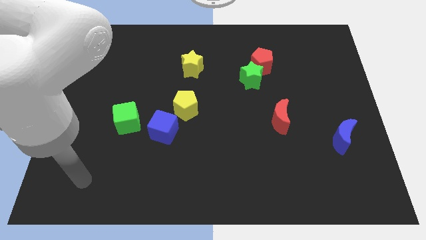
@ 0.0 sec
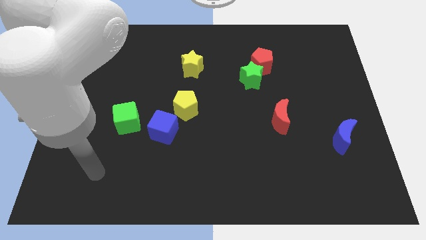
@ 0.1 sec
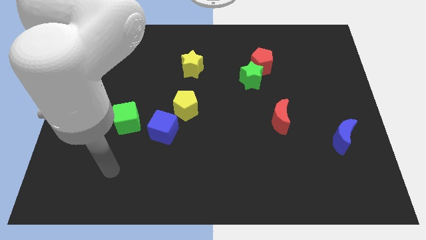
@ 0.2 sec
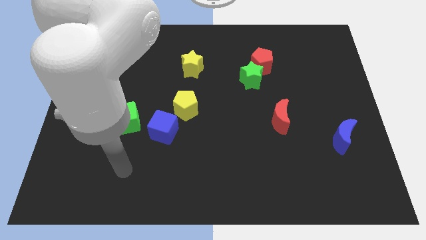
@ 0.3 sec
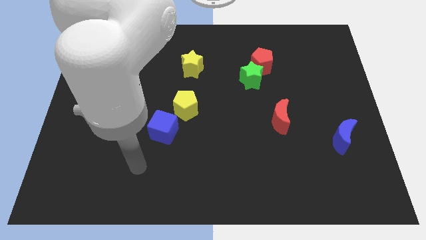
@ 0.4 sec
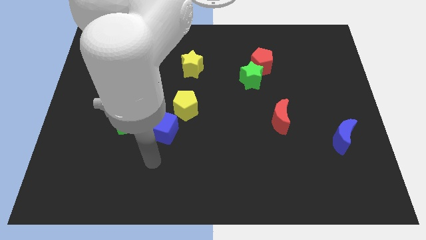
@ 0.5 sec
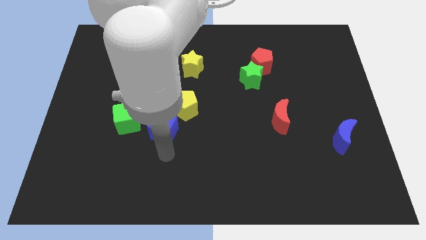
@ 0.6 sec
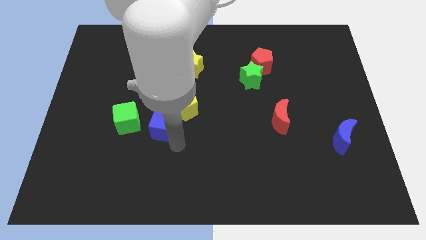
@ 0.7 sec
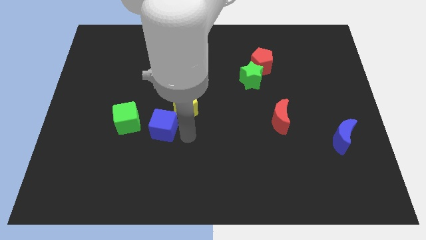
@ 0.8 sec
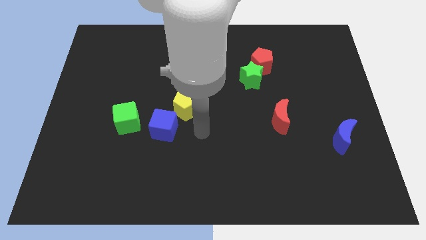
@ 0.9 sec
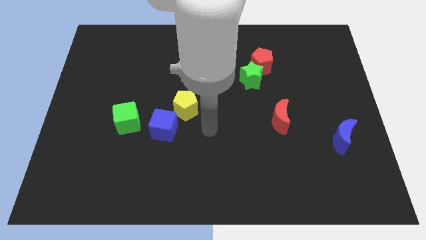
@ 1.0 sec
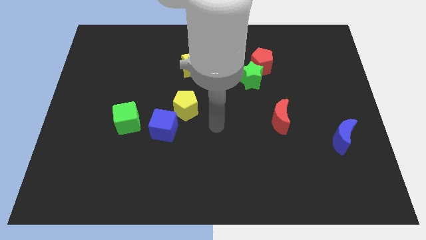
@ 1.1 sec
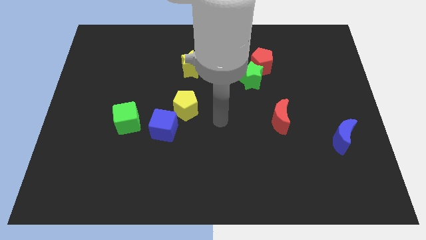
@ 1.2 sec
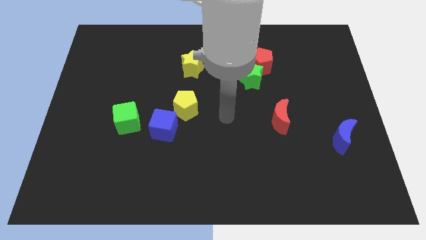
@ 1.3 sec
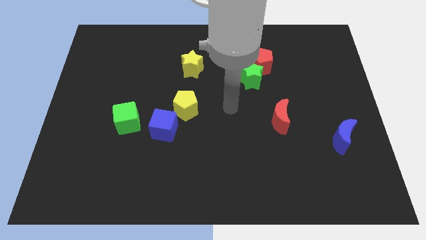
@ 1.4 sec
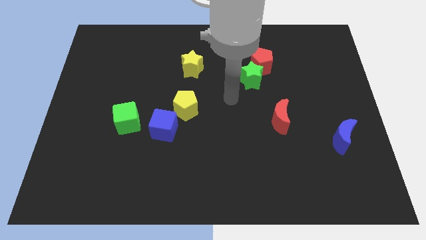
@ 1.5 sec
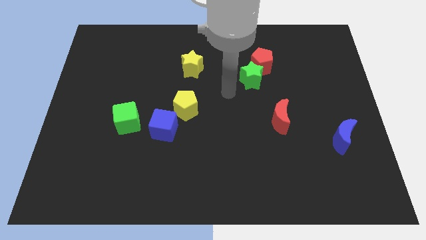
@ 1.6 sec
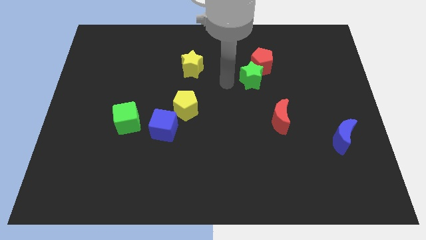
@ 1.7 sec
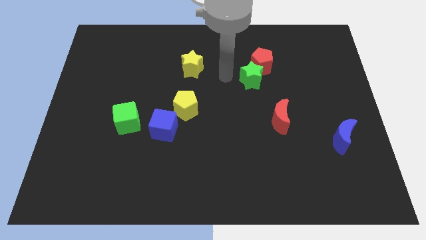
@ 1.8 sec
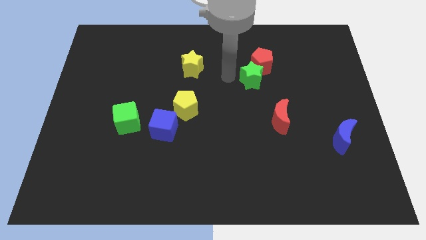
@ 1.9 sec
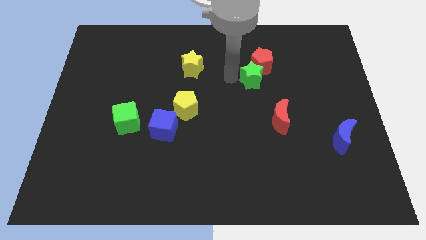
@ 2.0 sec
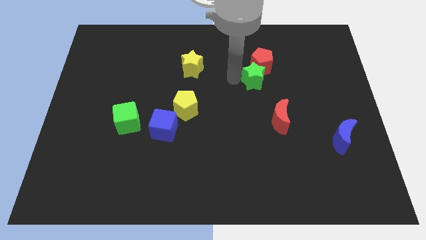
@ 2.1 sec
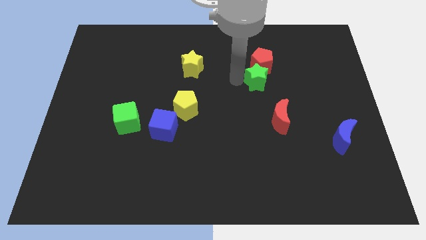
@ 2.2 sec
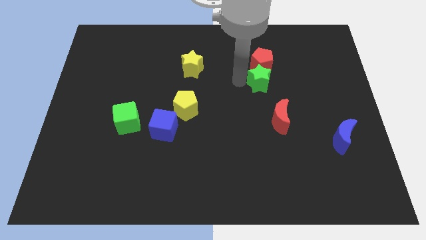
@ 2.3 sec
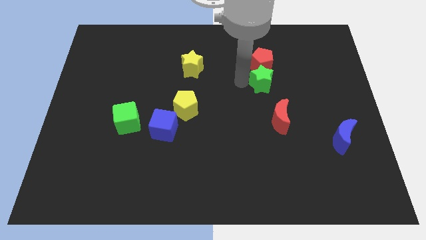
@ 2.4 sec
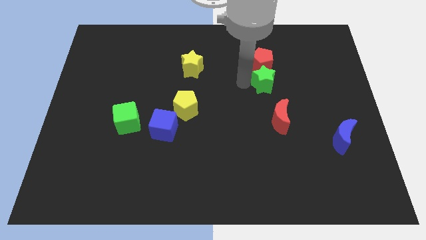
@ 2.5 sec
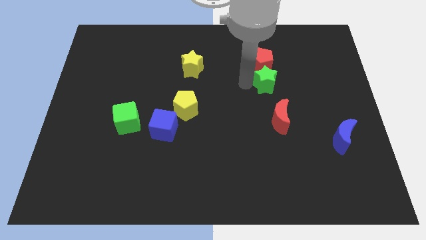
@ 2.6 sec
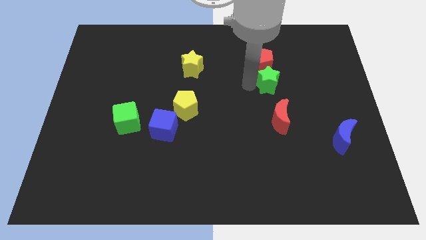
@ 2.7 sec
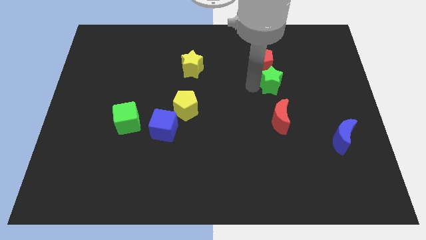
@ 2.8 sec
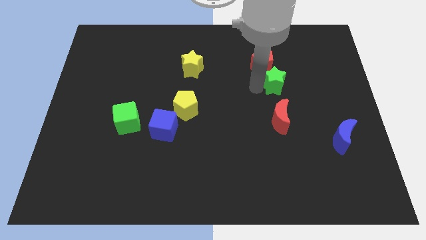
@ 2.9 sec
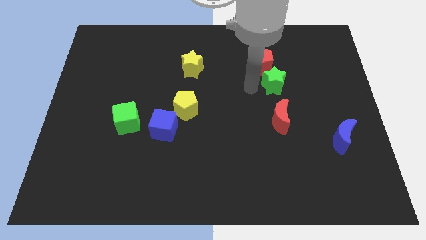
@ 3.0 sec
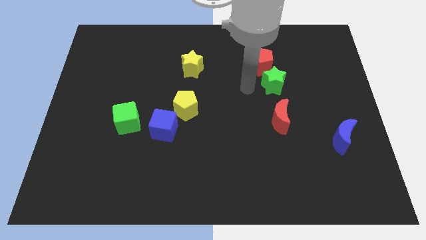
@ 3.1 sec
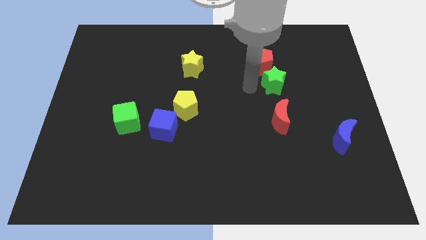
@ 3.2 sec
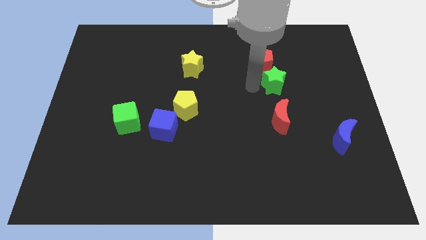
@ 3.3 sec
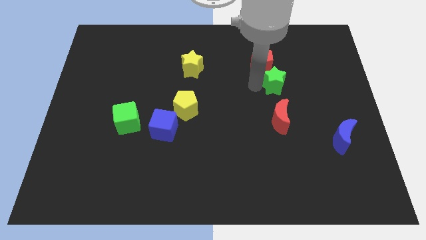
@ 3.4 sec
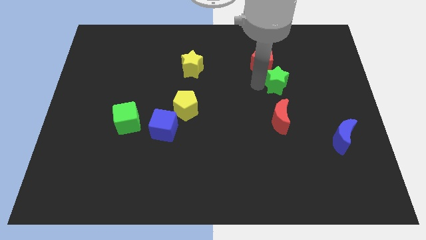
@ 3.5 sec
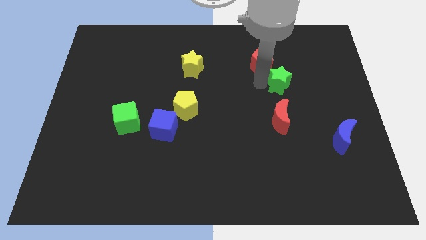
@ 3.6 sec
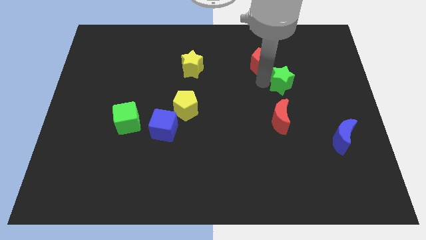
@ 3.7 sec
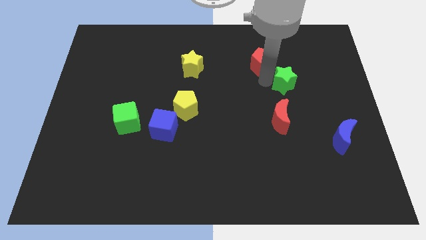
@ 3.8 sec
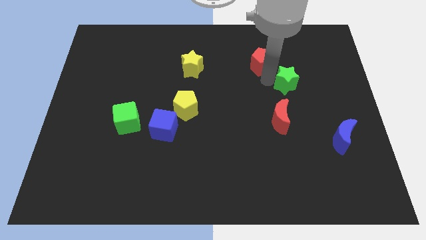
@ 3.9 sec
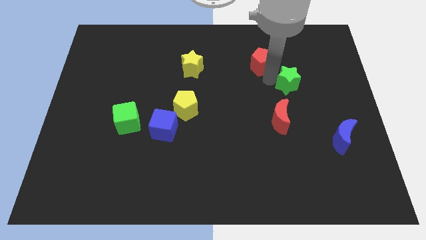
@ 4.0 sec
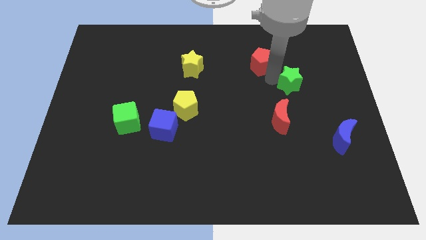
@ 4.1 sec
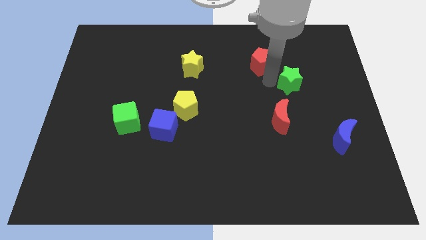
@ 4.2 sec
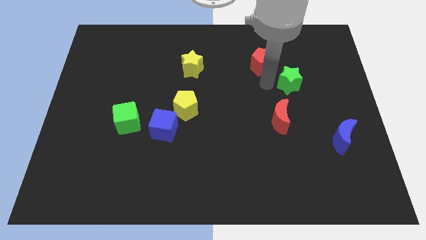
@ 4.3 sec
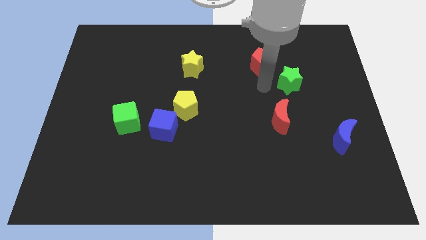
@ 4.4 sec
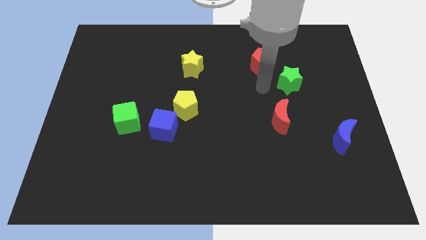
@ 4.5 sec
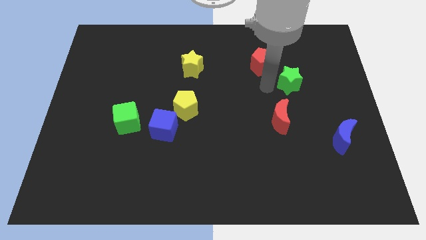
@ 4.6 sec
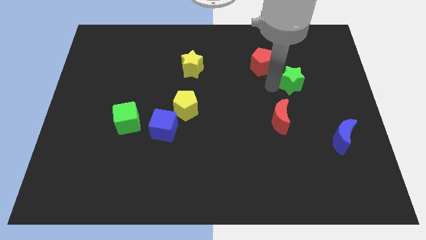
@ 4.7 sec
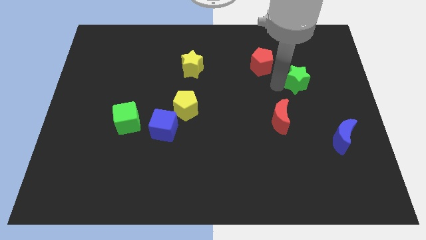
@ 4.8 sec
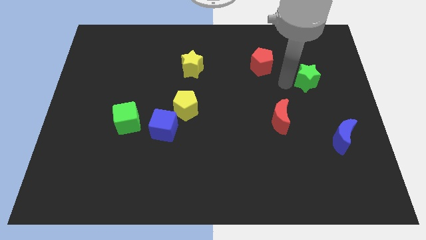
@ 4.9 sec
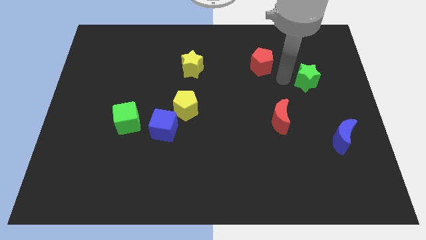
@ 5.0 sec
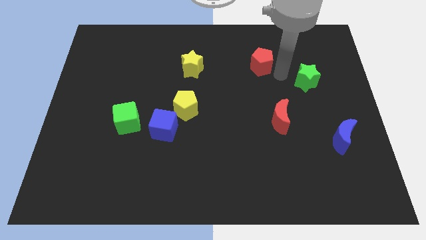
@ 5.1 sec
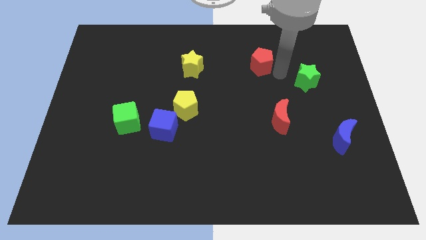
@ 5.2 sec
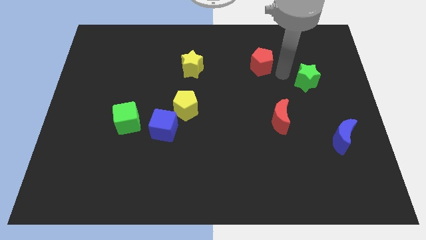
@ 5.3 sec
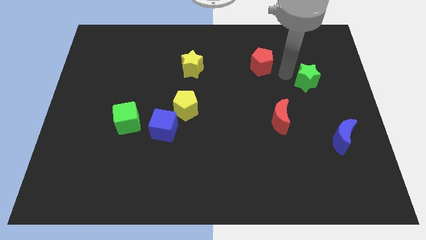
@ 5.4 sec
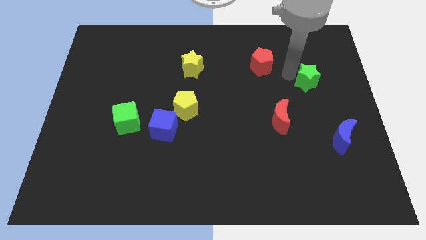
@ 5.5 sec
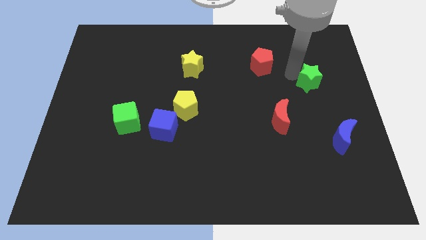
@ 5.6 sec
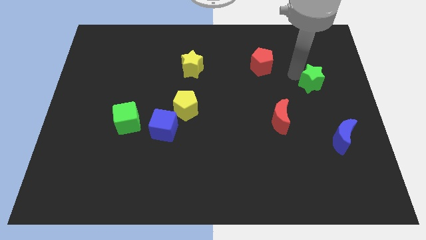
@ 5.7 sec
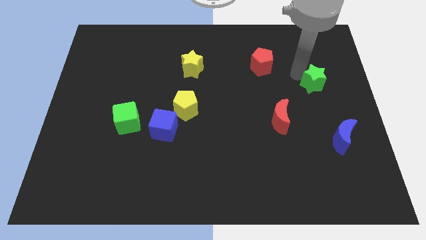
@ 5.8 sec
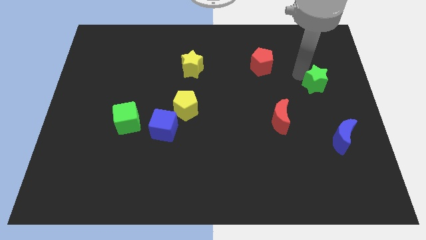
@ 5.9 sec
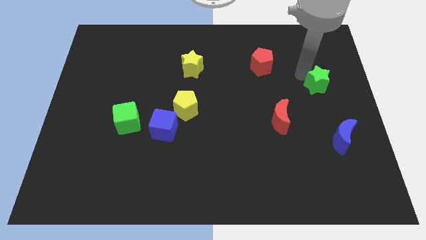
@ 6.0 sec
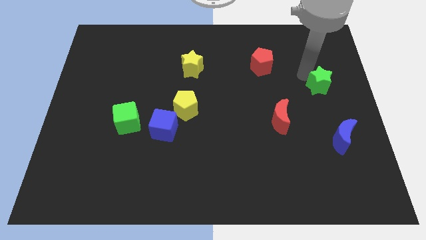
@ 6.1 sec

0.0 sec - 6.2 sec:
slide the green star to the center right

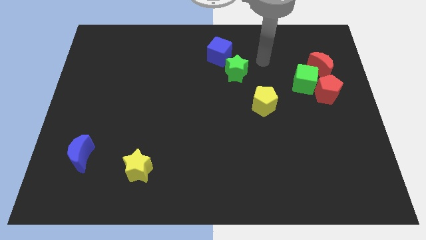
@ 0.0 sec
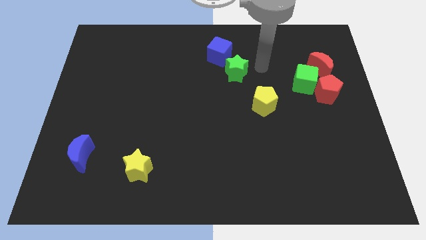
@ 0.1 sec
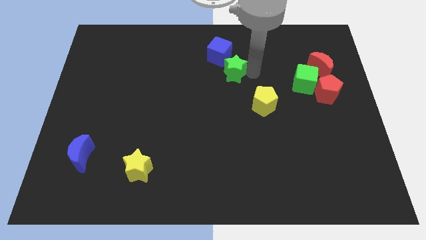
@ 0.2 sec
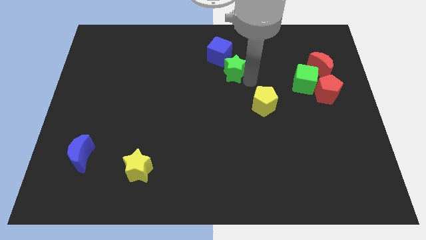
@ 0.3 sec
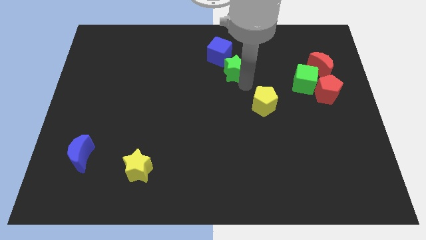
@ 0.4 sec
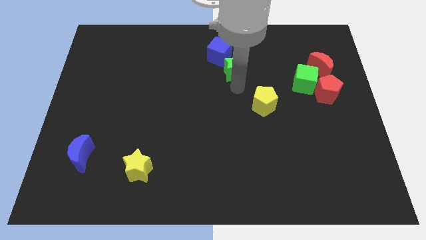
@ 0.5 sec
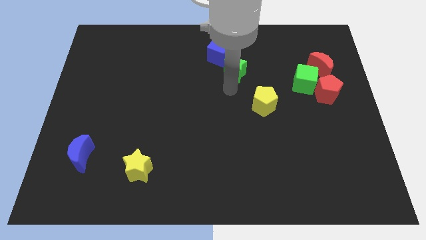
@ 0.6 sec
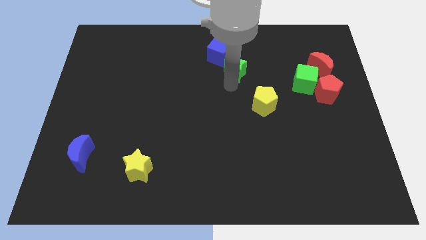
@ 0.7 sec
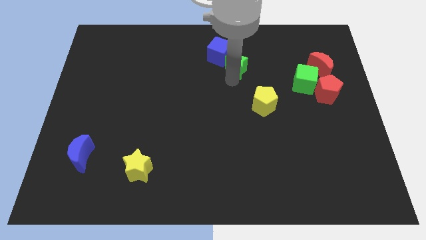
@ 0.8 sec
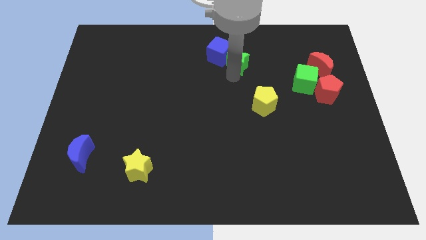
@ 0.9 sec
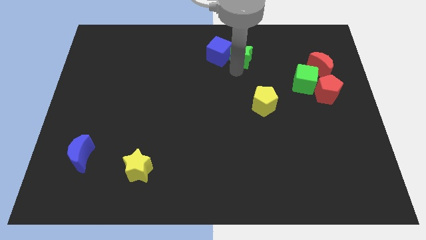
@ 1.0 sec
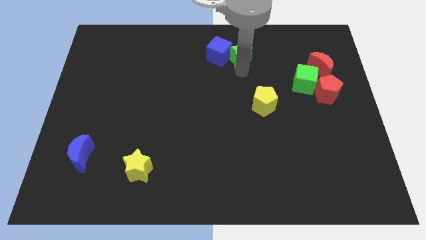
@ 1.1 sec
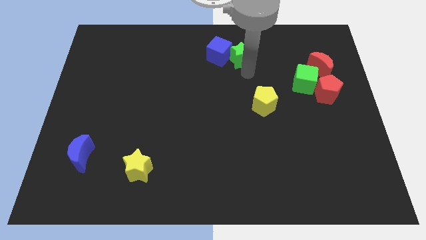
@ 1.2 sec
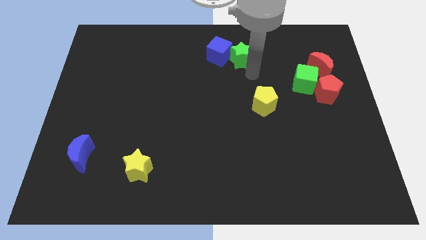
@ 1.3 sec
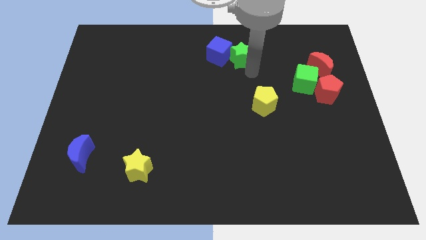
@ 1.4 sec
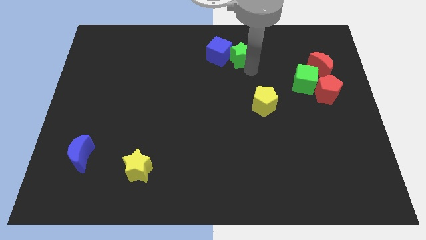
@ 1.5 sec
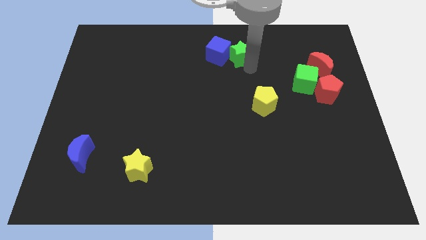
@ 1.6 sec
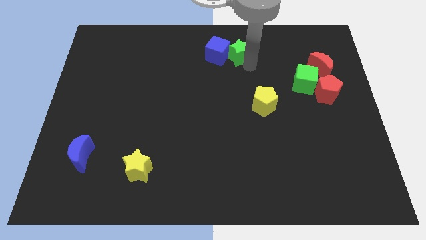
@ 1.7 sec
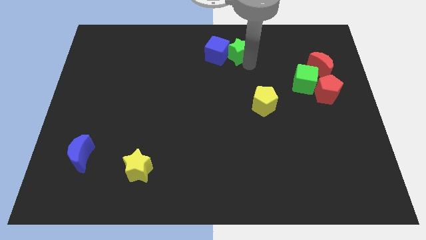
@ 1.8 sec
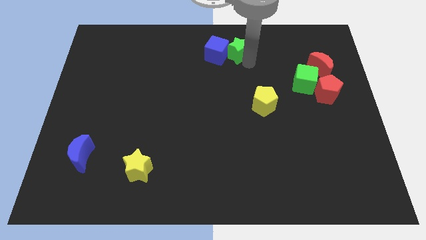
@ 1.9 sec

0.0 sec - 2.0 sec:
push the green star to the top side
